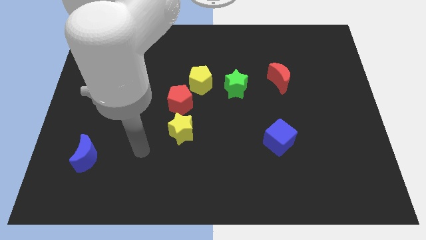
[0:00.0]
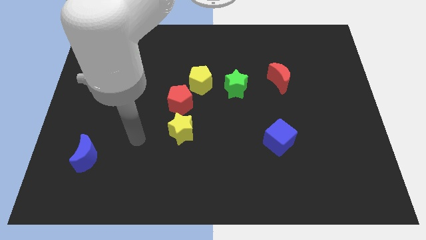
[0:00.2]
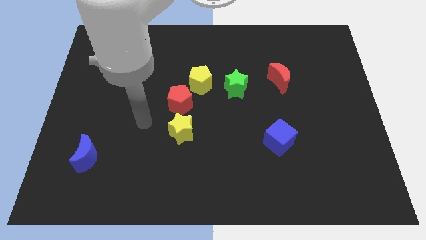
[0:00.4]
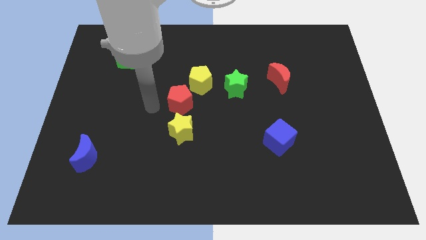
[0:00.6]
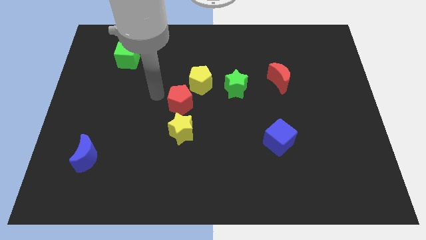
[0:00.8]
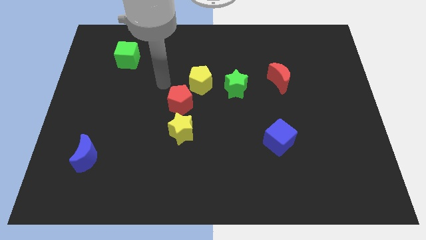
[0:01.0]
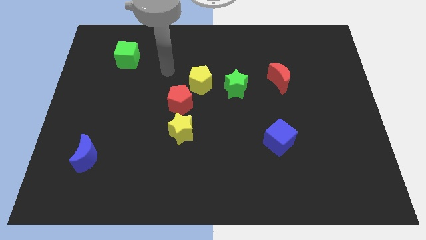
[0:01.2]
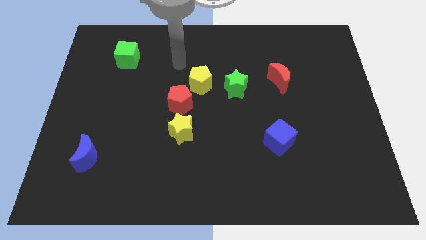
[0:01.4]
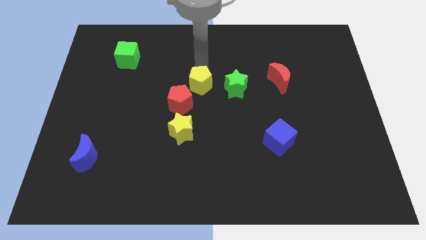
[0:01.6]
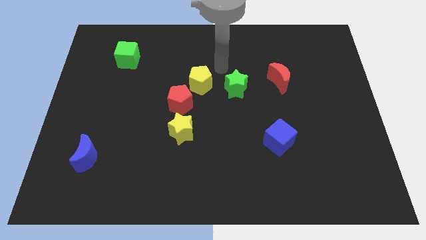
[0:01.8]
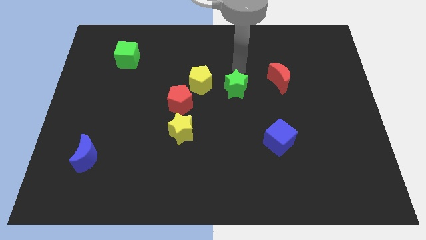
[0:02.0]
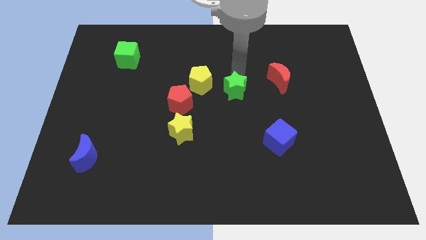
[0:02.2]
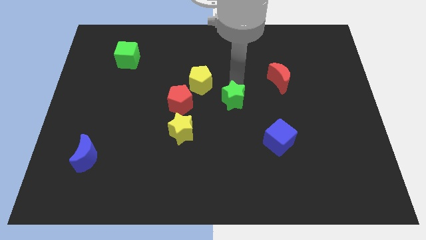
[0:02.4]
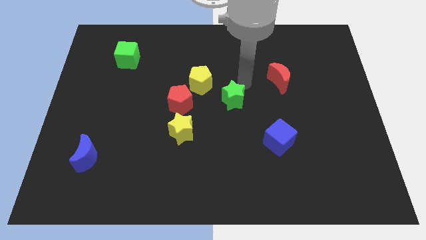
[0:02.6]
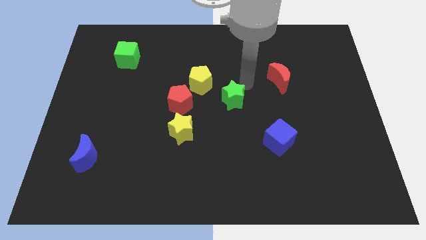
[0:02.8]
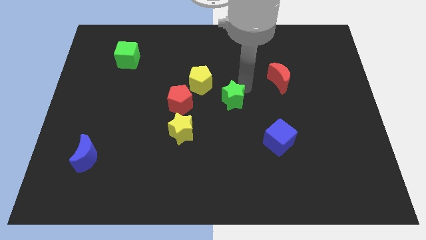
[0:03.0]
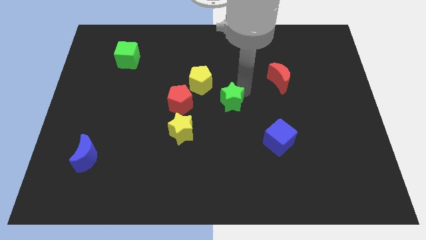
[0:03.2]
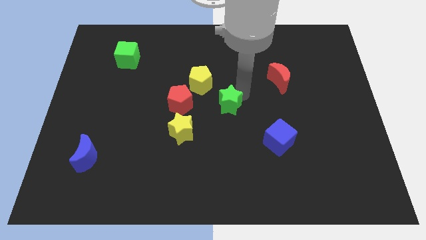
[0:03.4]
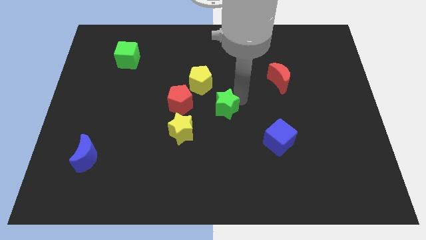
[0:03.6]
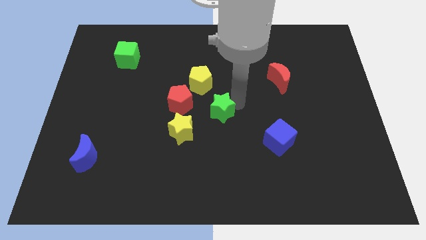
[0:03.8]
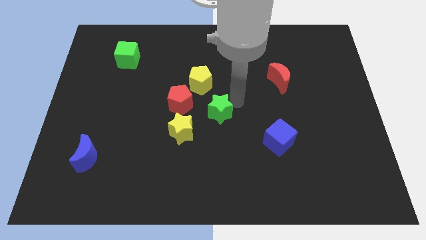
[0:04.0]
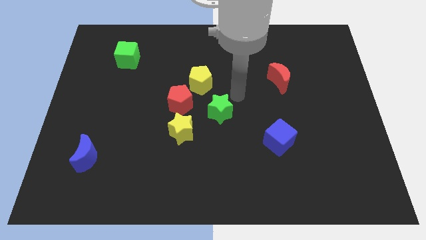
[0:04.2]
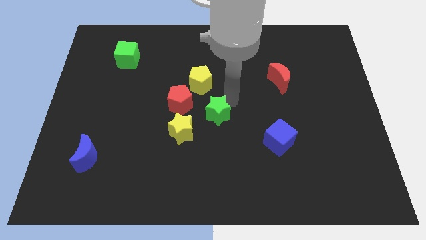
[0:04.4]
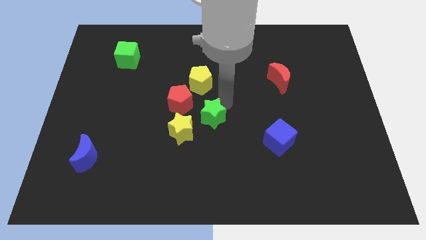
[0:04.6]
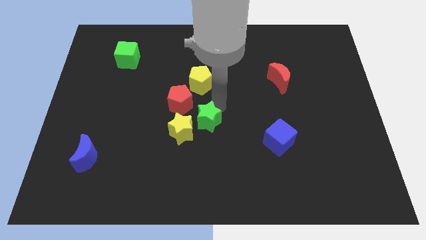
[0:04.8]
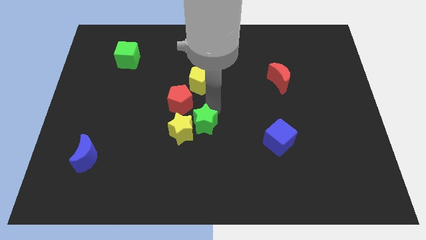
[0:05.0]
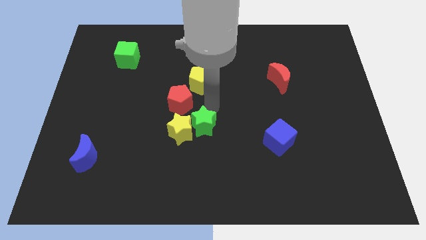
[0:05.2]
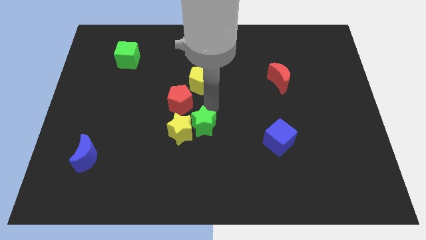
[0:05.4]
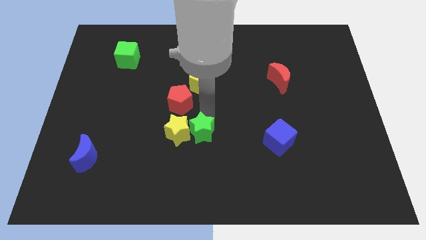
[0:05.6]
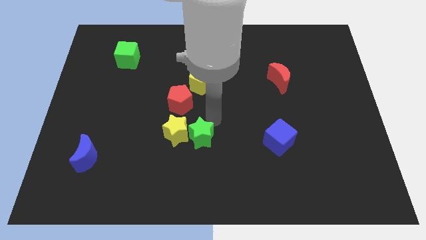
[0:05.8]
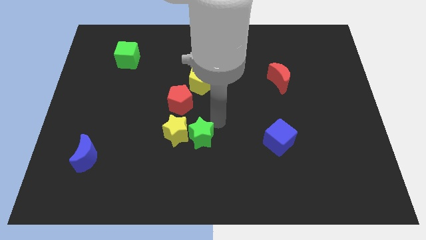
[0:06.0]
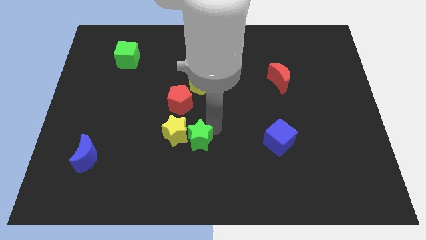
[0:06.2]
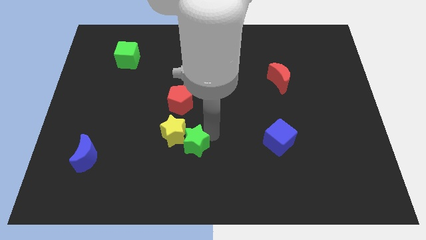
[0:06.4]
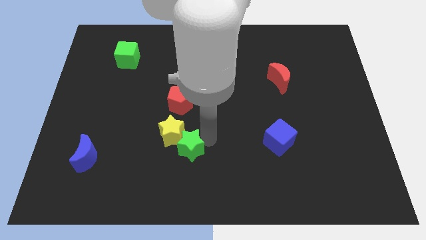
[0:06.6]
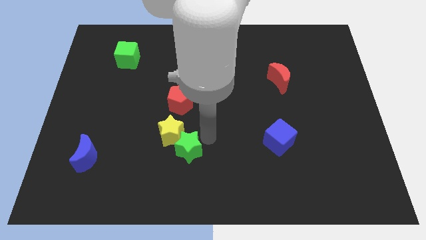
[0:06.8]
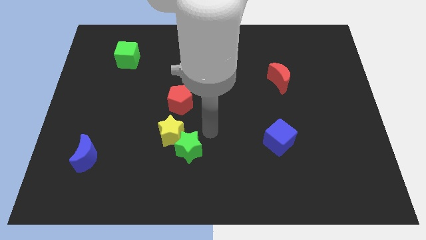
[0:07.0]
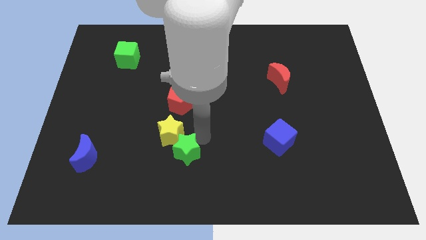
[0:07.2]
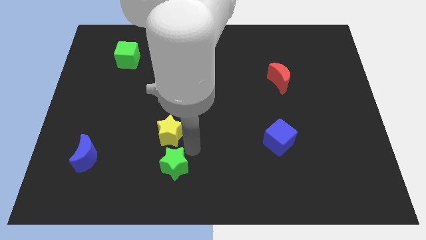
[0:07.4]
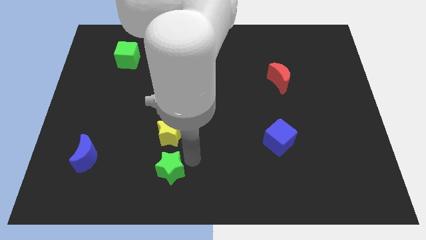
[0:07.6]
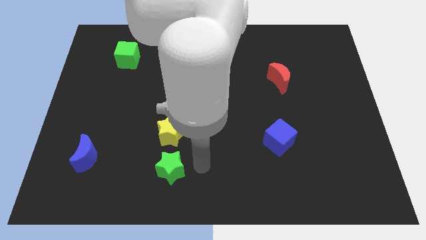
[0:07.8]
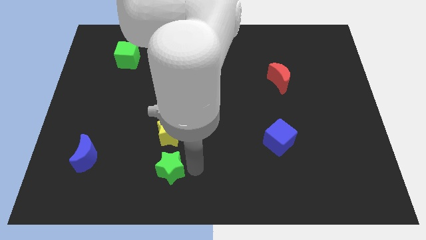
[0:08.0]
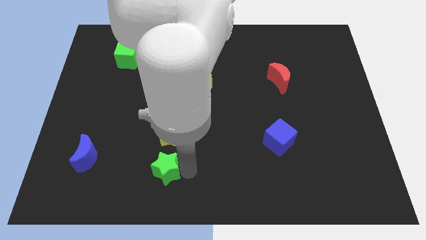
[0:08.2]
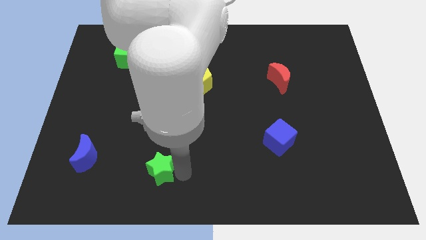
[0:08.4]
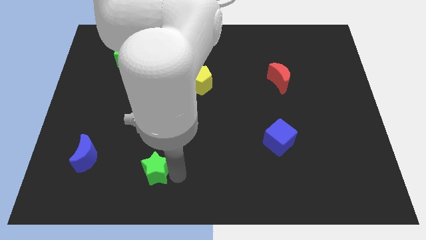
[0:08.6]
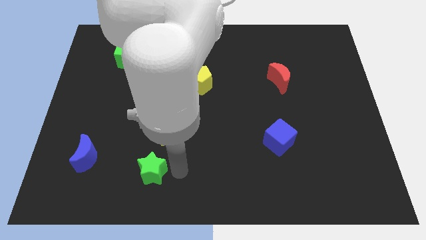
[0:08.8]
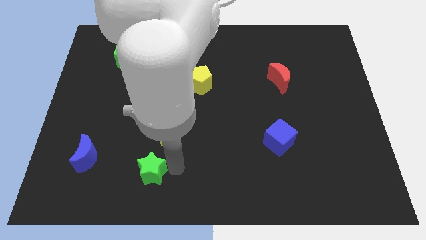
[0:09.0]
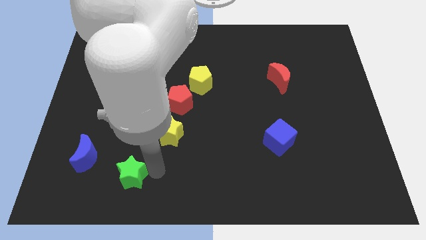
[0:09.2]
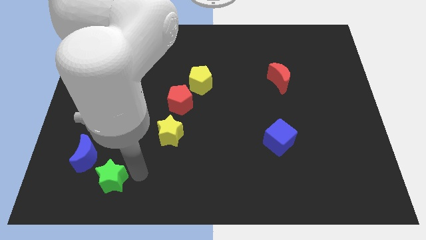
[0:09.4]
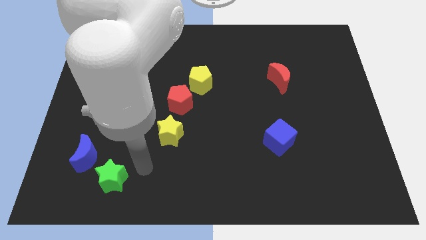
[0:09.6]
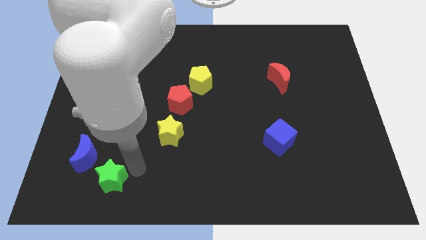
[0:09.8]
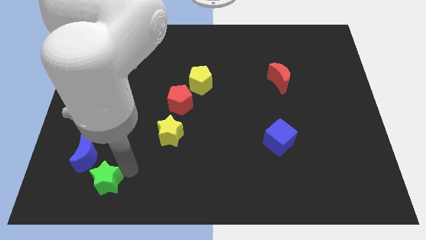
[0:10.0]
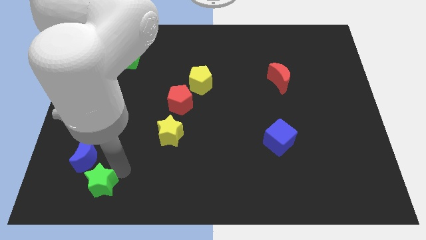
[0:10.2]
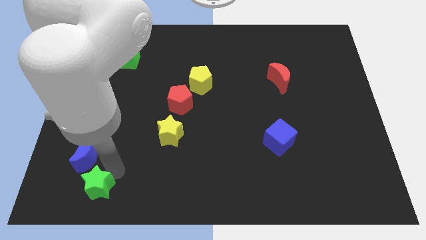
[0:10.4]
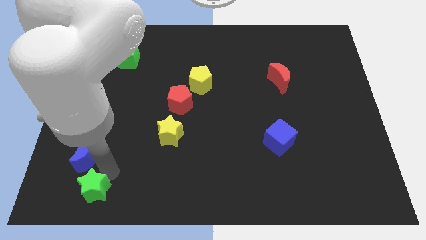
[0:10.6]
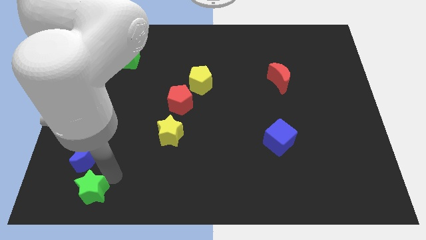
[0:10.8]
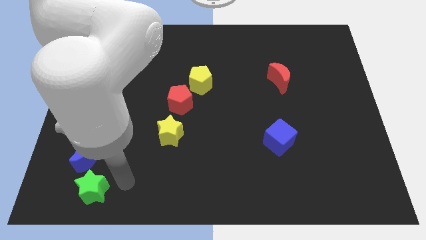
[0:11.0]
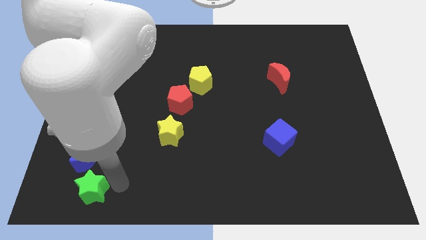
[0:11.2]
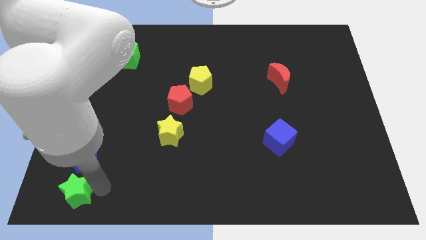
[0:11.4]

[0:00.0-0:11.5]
push the green star to the bottom left

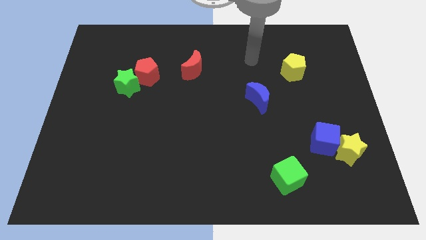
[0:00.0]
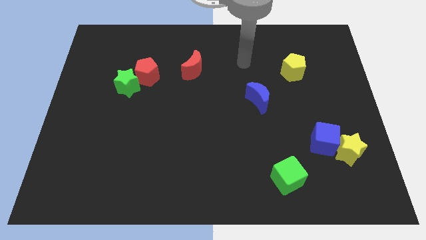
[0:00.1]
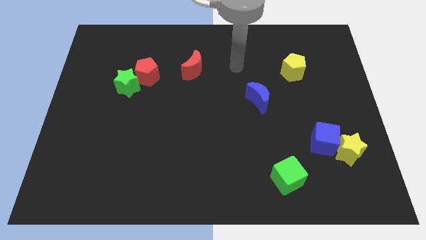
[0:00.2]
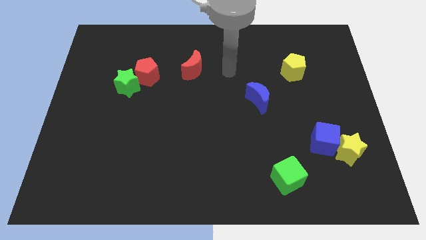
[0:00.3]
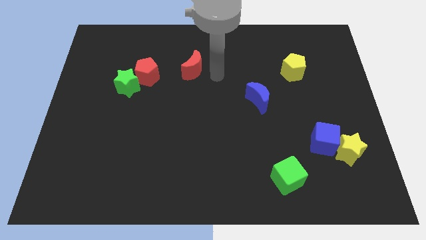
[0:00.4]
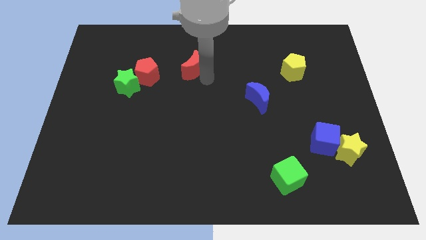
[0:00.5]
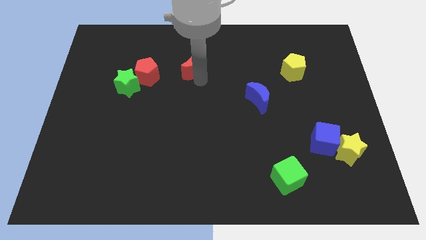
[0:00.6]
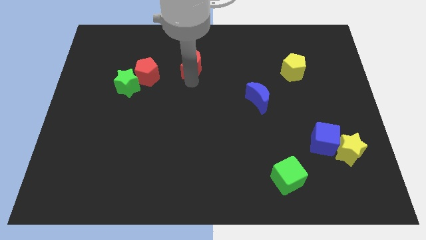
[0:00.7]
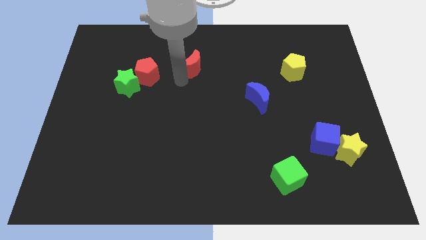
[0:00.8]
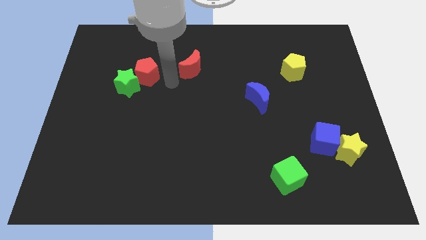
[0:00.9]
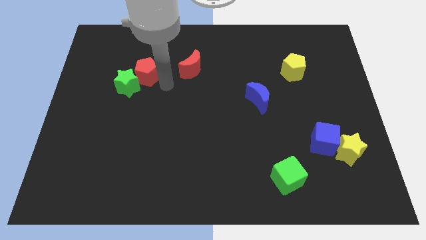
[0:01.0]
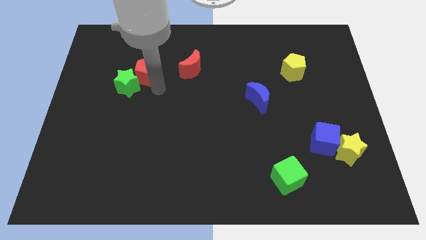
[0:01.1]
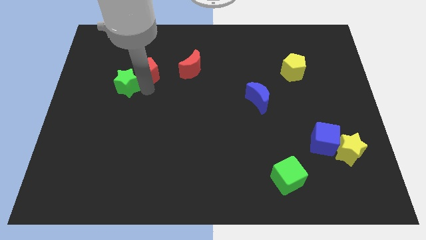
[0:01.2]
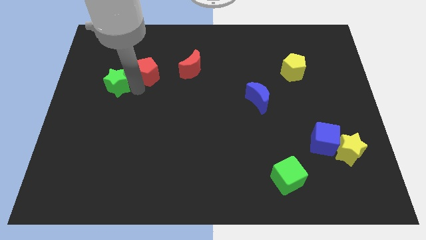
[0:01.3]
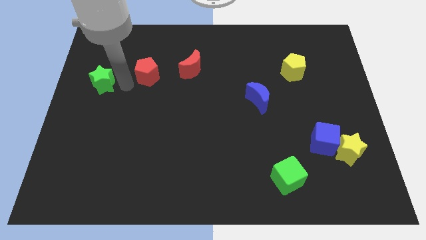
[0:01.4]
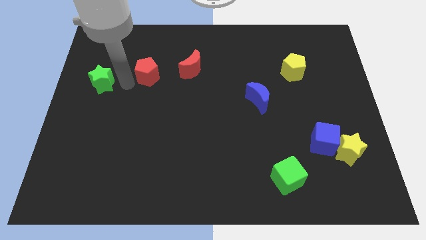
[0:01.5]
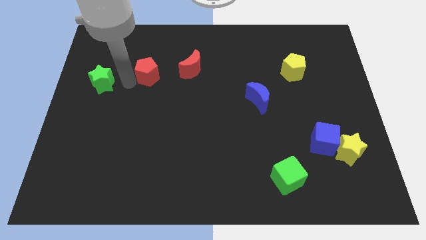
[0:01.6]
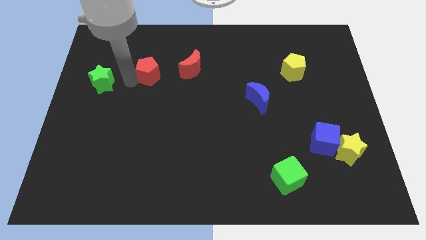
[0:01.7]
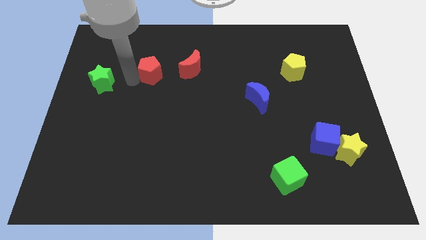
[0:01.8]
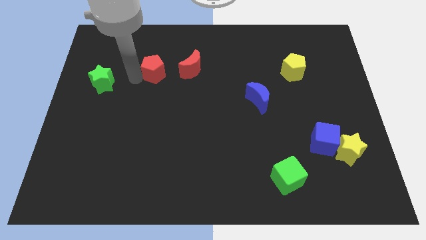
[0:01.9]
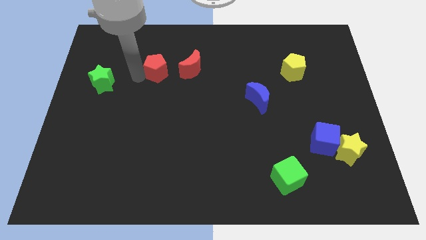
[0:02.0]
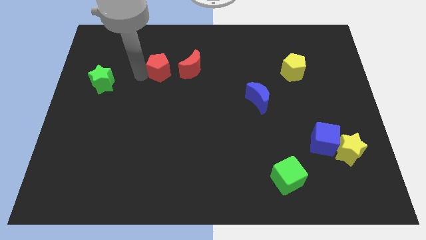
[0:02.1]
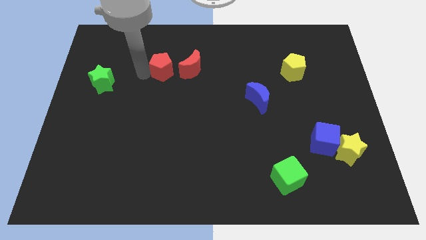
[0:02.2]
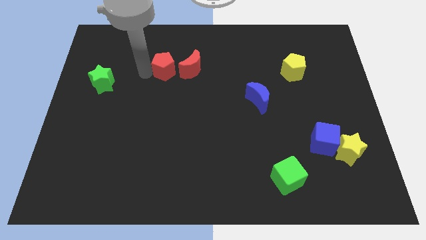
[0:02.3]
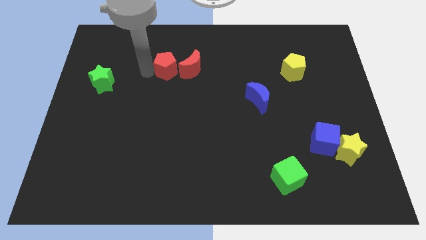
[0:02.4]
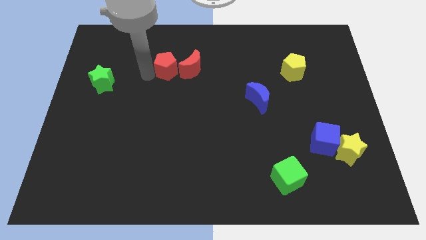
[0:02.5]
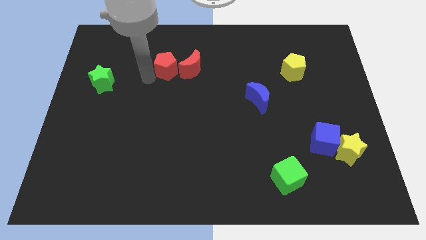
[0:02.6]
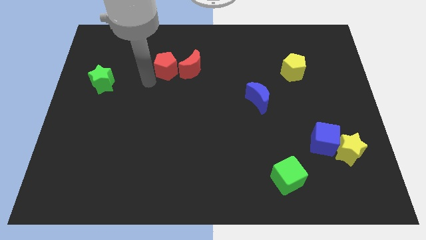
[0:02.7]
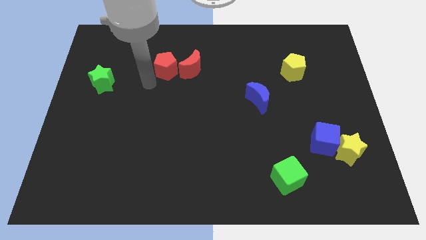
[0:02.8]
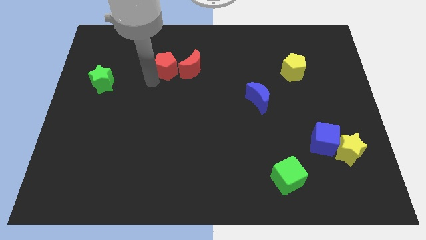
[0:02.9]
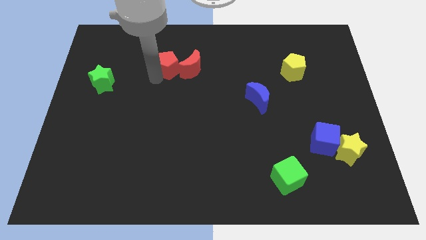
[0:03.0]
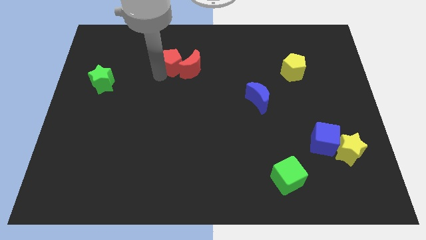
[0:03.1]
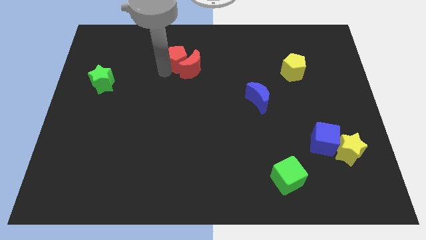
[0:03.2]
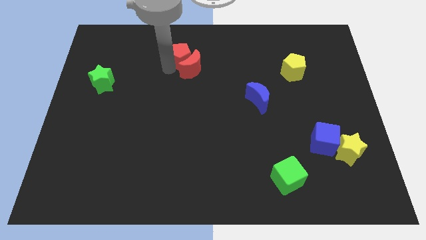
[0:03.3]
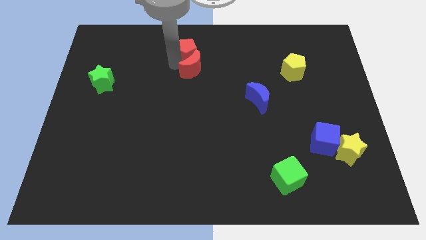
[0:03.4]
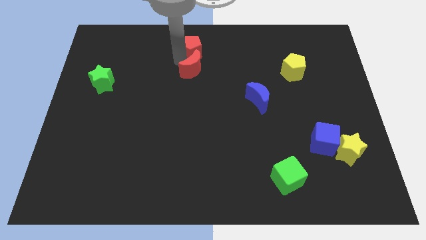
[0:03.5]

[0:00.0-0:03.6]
push the red pentagon to the top side
